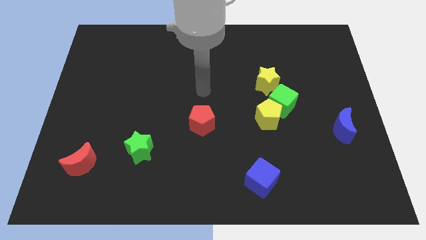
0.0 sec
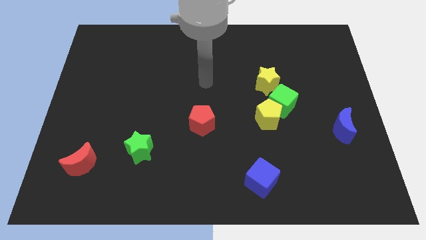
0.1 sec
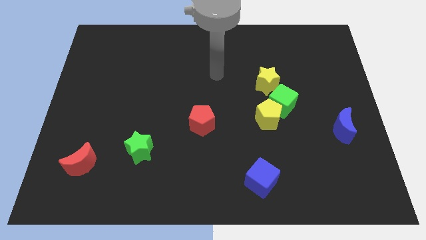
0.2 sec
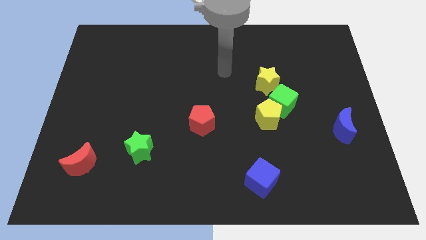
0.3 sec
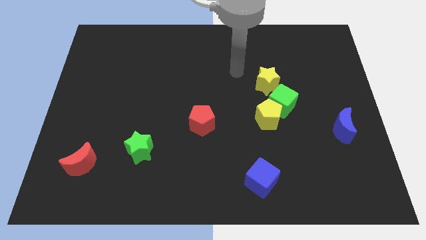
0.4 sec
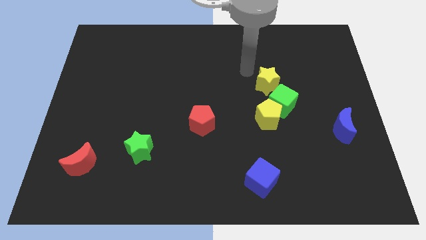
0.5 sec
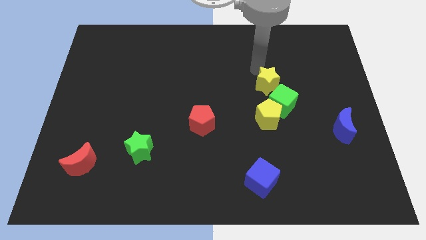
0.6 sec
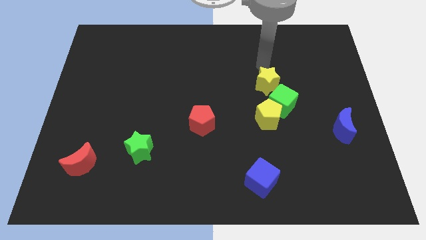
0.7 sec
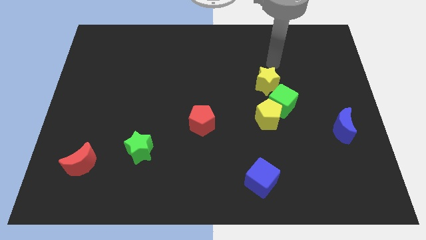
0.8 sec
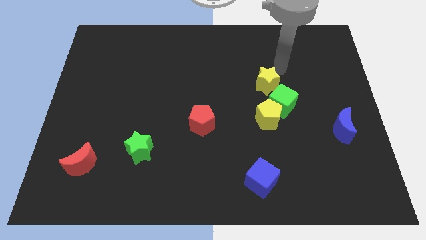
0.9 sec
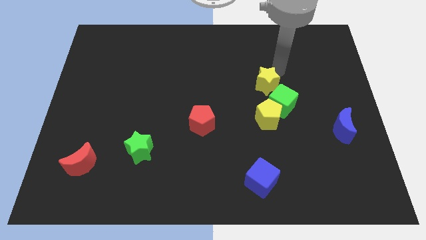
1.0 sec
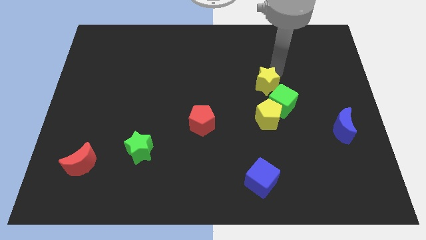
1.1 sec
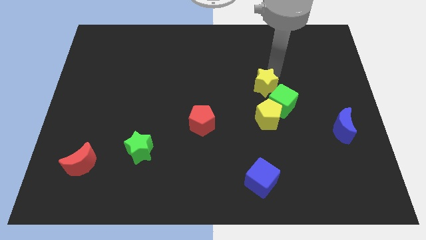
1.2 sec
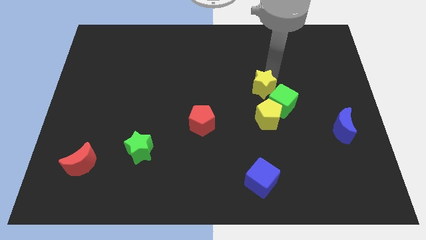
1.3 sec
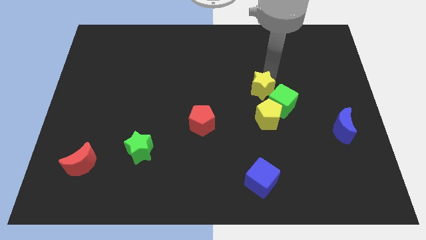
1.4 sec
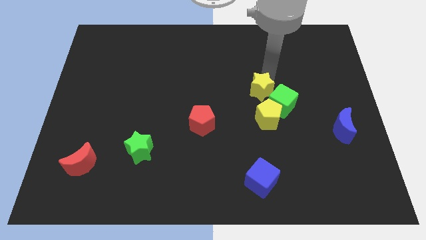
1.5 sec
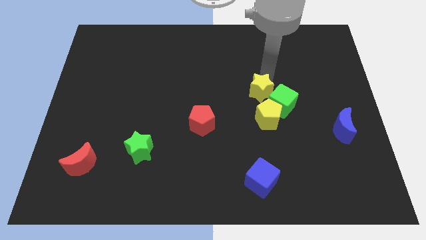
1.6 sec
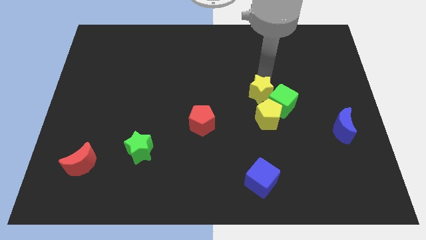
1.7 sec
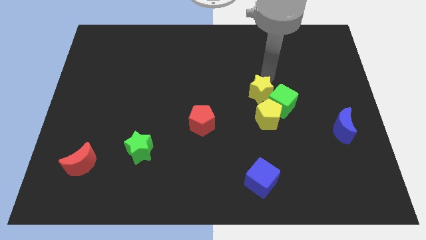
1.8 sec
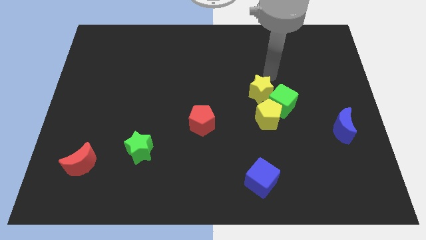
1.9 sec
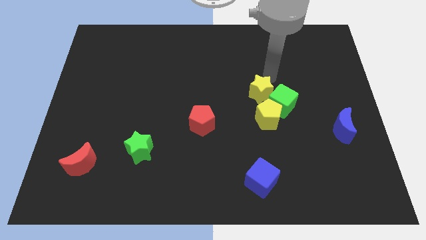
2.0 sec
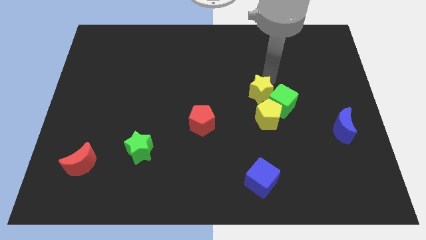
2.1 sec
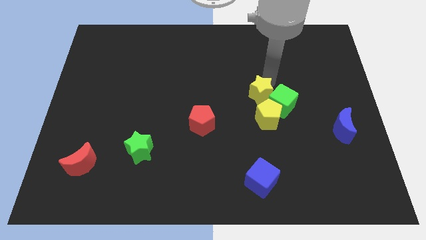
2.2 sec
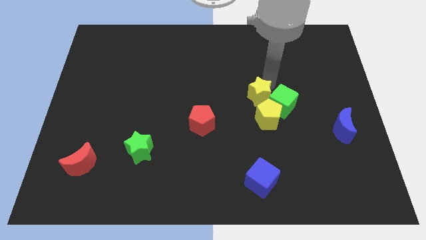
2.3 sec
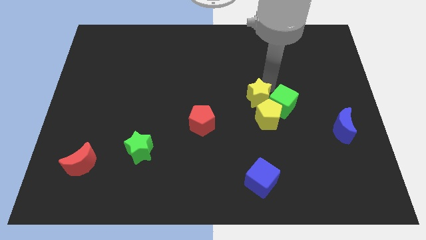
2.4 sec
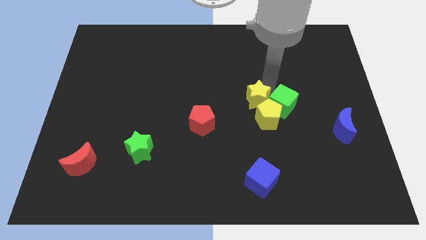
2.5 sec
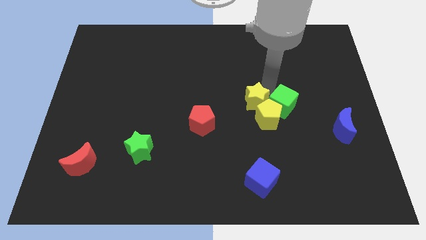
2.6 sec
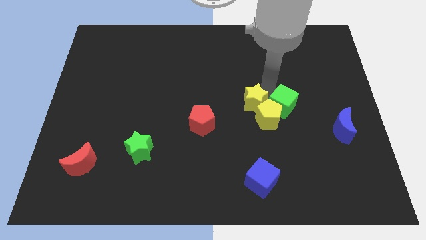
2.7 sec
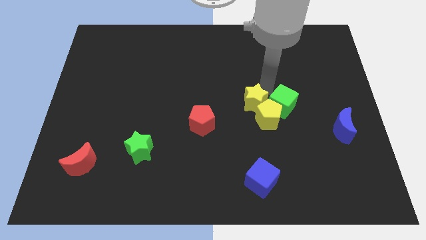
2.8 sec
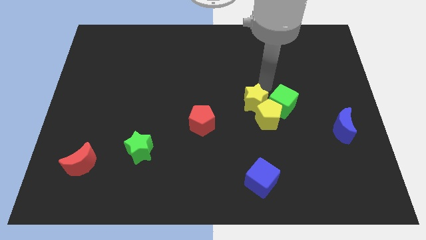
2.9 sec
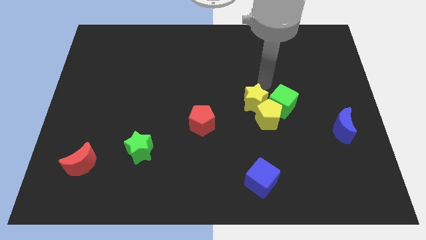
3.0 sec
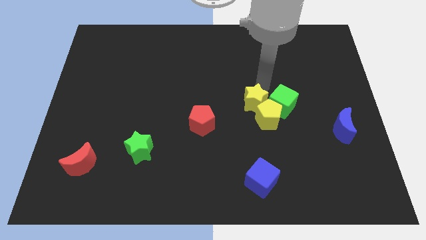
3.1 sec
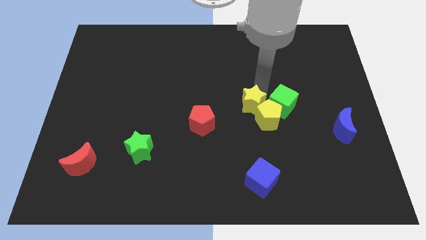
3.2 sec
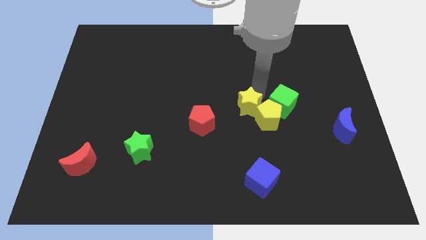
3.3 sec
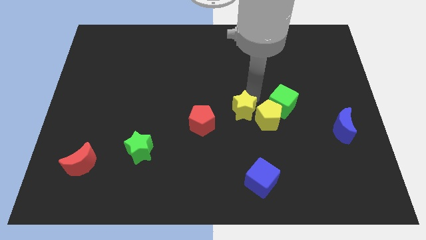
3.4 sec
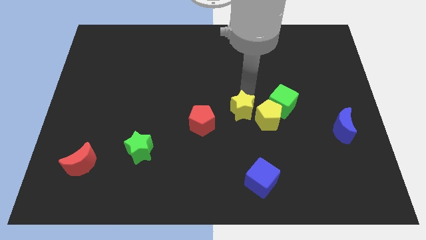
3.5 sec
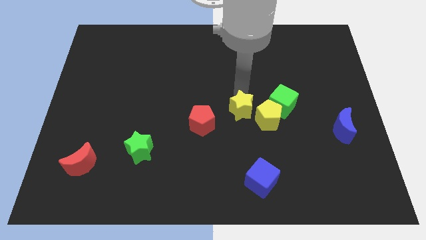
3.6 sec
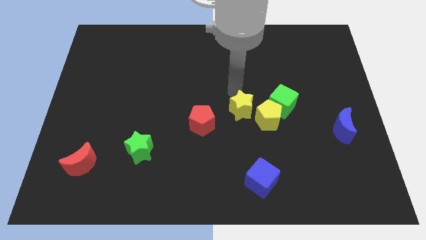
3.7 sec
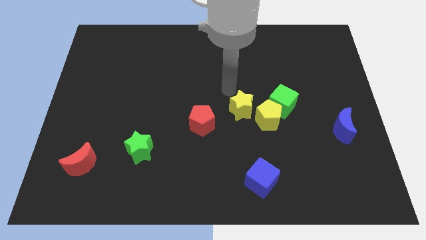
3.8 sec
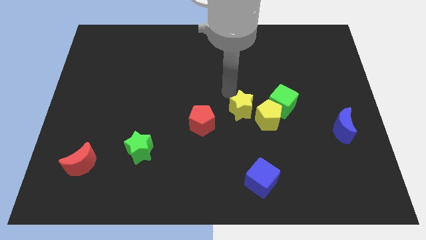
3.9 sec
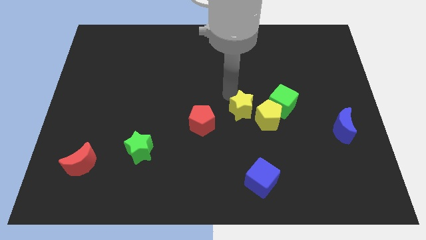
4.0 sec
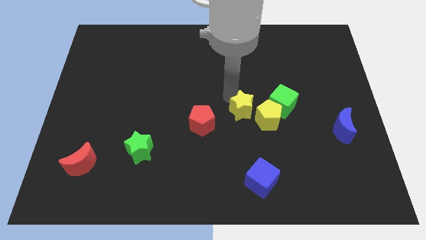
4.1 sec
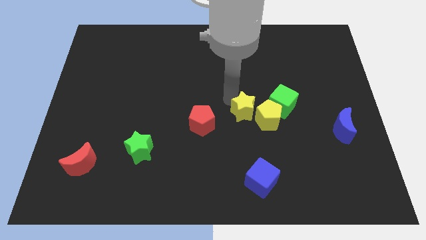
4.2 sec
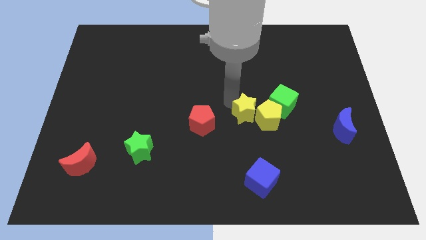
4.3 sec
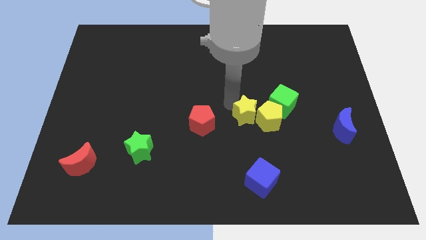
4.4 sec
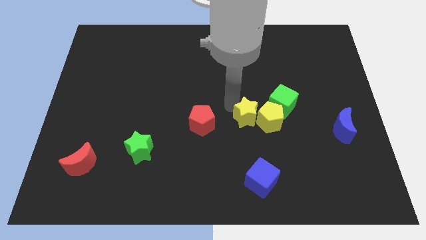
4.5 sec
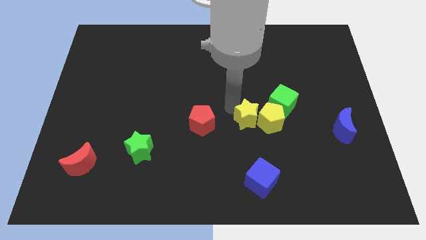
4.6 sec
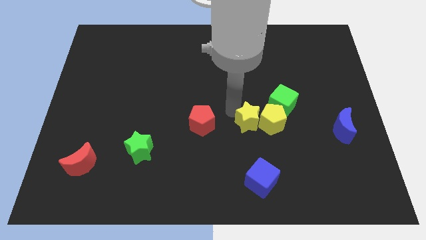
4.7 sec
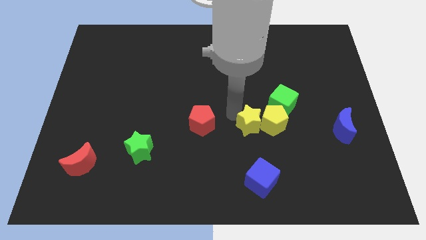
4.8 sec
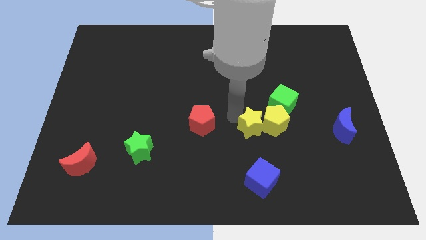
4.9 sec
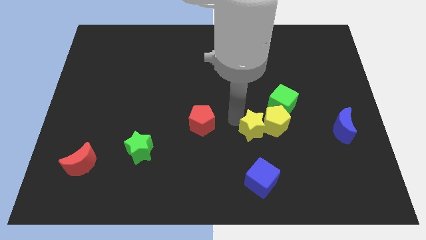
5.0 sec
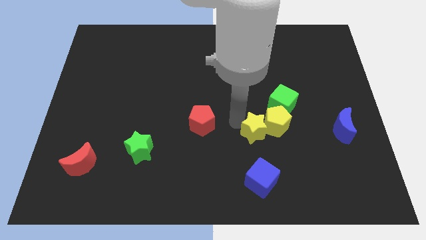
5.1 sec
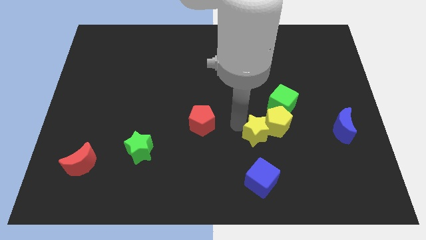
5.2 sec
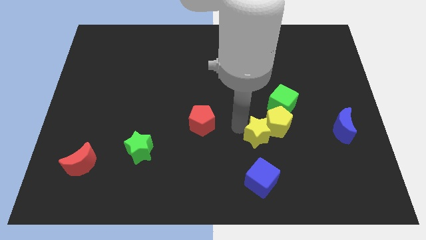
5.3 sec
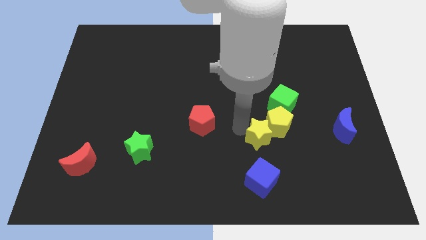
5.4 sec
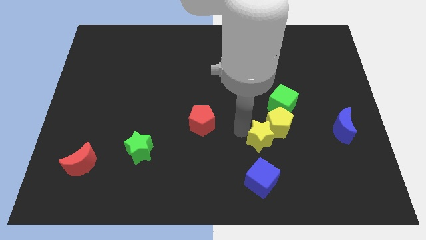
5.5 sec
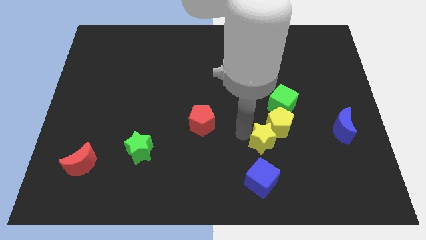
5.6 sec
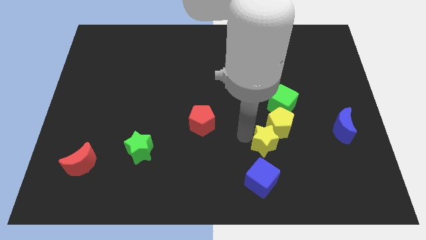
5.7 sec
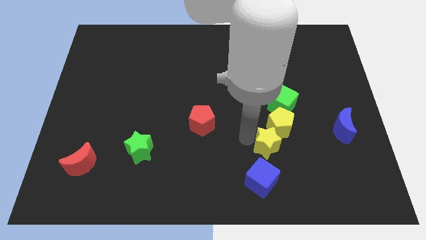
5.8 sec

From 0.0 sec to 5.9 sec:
put the yellow star diagonally up and to the right of the blue cube

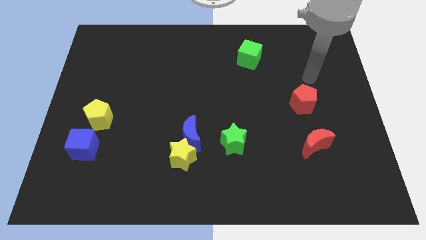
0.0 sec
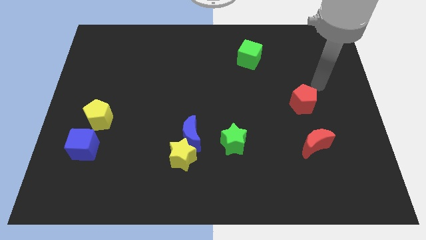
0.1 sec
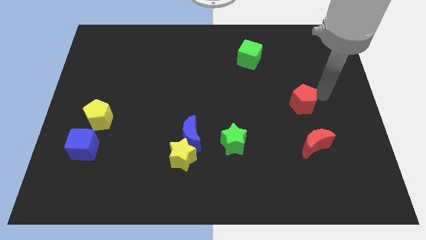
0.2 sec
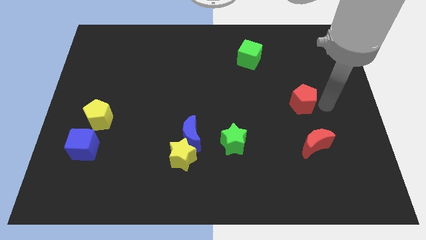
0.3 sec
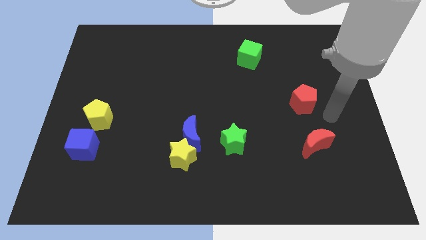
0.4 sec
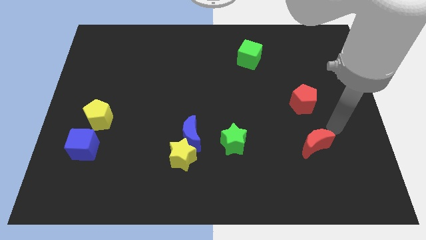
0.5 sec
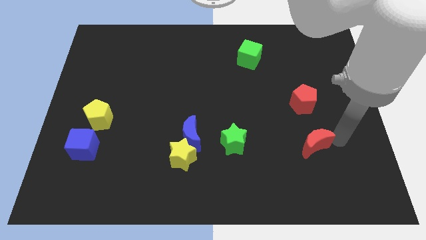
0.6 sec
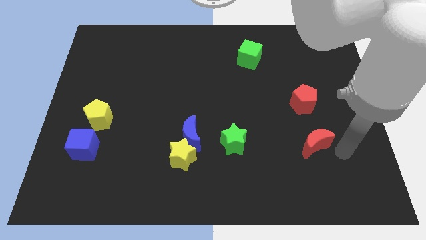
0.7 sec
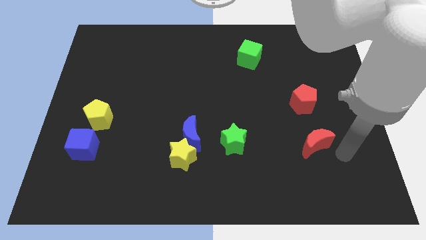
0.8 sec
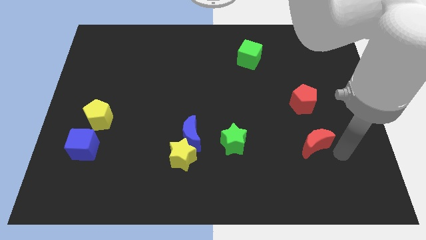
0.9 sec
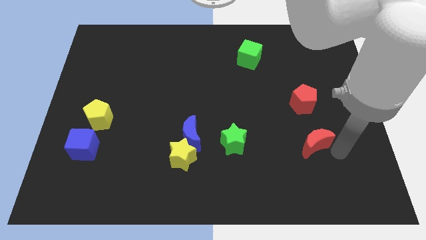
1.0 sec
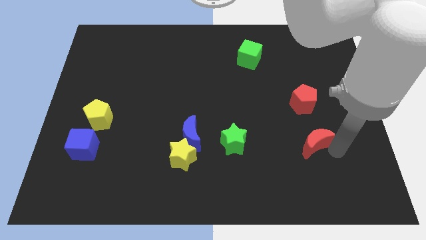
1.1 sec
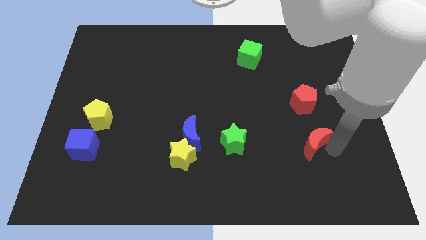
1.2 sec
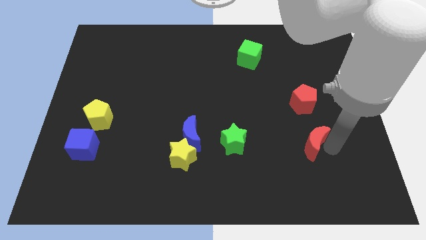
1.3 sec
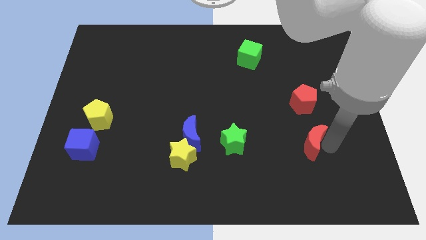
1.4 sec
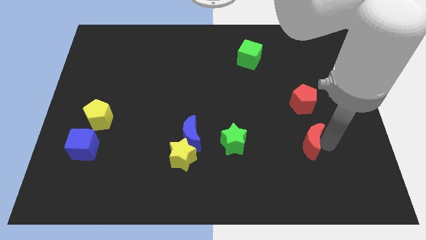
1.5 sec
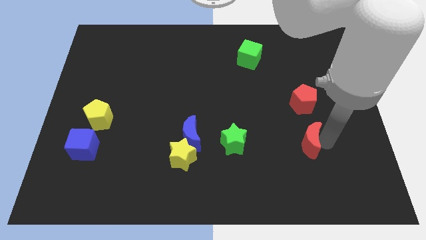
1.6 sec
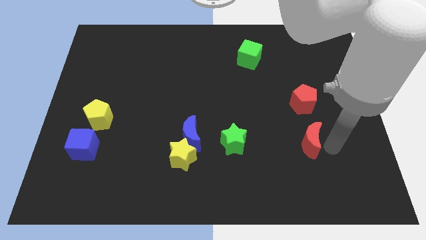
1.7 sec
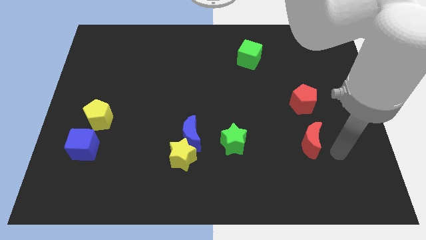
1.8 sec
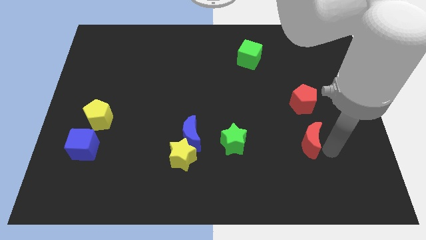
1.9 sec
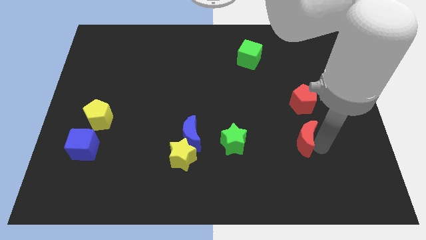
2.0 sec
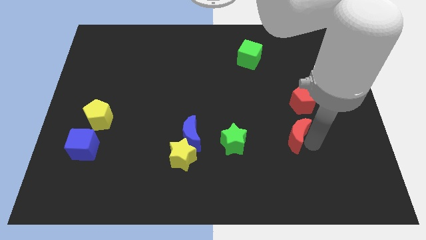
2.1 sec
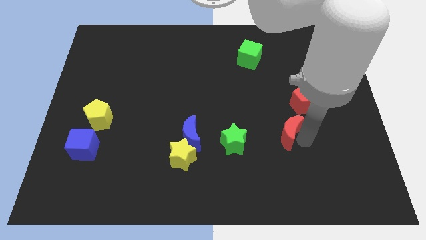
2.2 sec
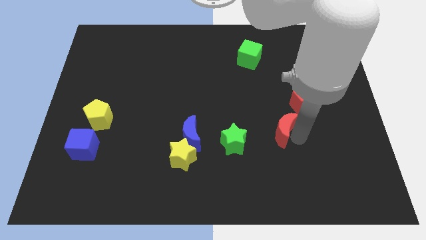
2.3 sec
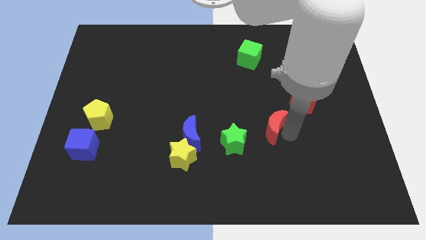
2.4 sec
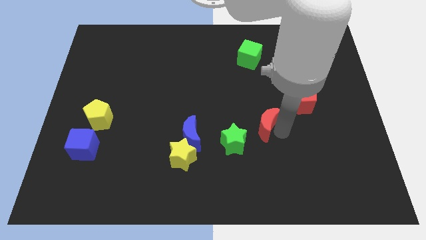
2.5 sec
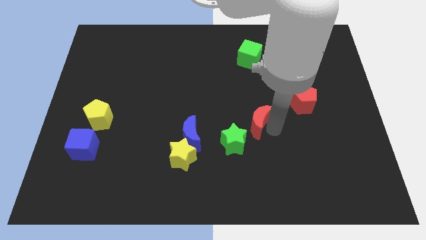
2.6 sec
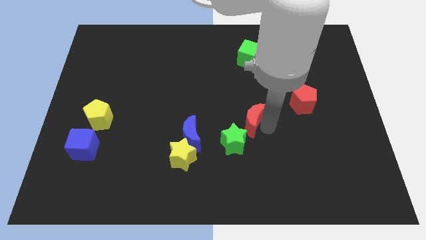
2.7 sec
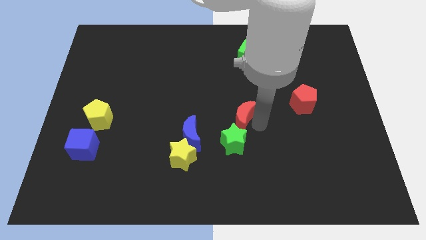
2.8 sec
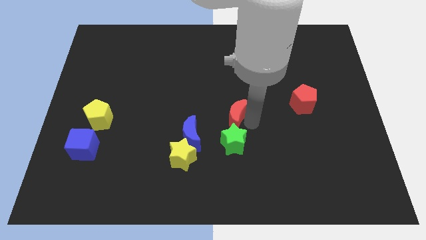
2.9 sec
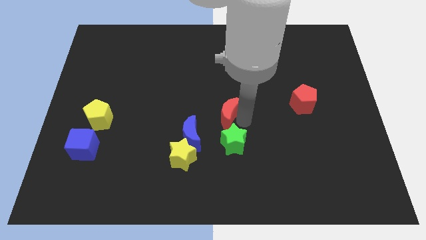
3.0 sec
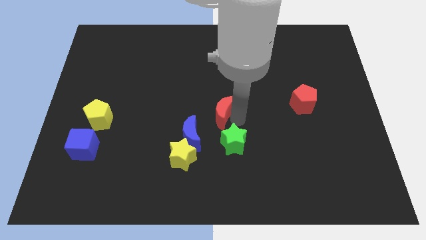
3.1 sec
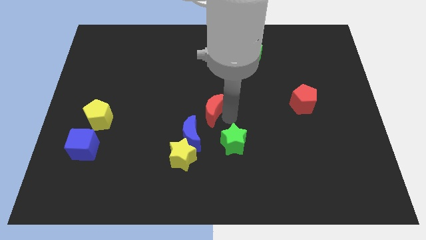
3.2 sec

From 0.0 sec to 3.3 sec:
push the red moon to the top of the blue moon
